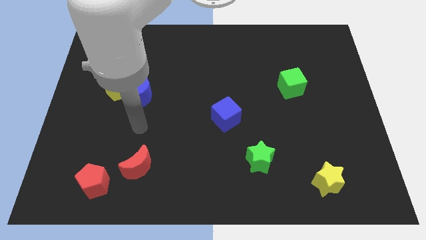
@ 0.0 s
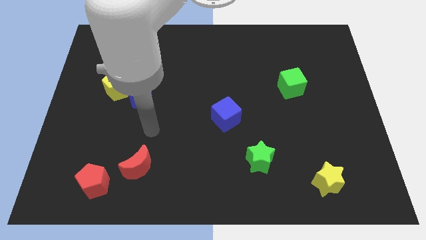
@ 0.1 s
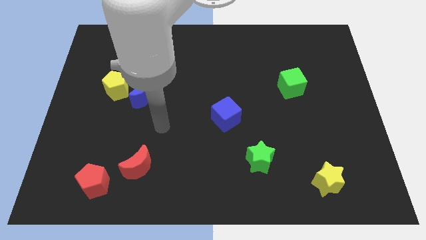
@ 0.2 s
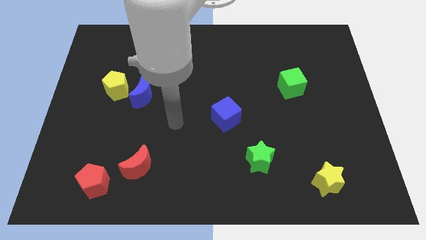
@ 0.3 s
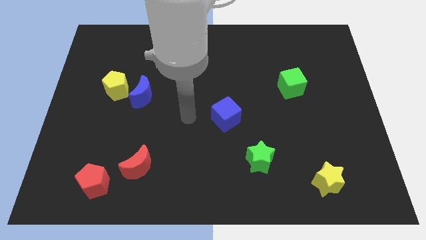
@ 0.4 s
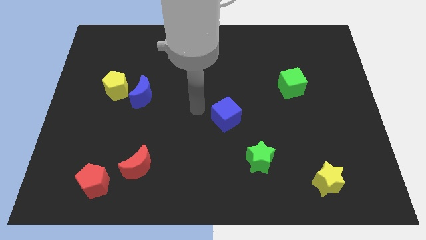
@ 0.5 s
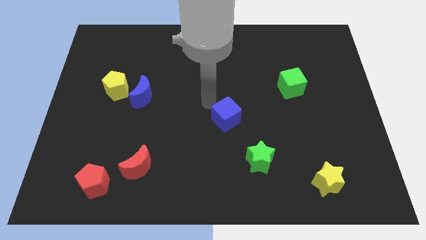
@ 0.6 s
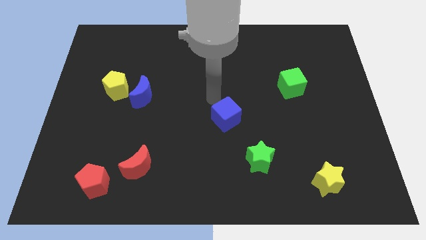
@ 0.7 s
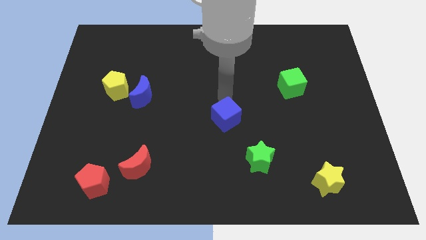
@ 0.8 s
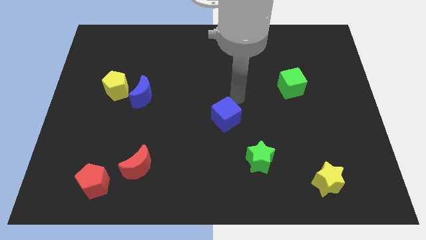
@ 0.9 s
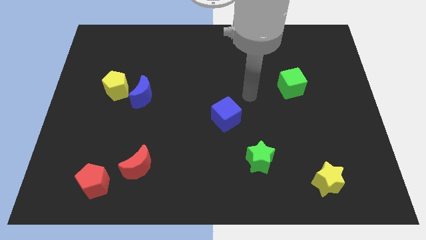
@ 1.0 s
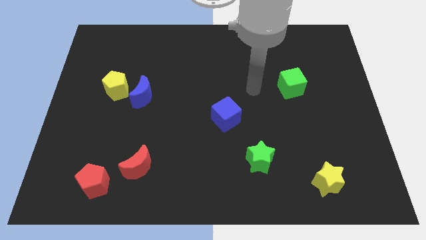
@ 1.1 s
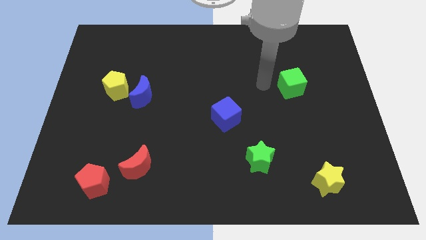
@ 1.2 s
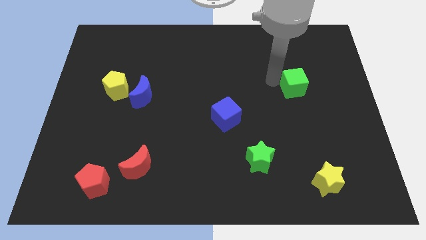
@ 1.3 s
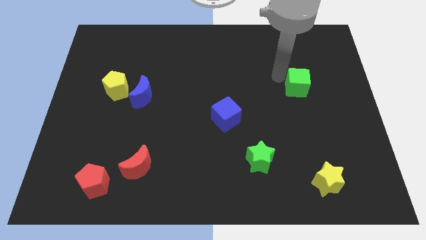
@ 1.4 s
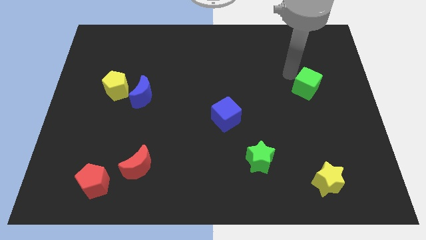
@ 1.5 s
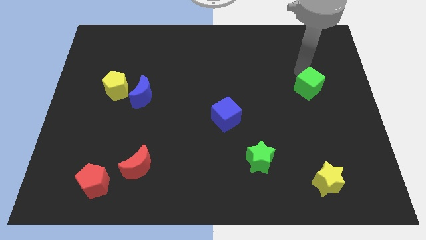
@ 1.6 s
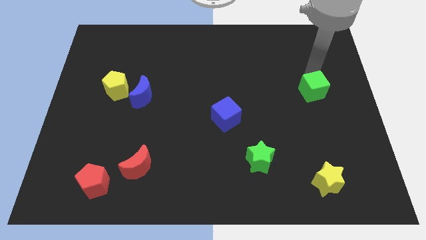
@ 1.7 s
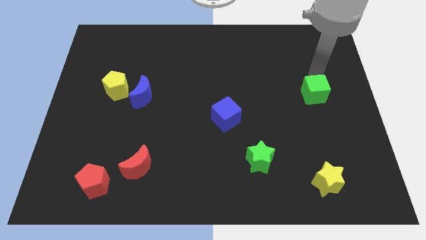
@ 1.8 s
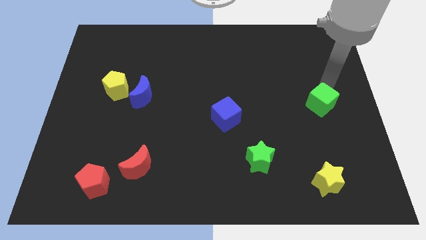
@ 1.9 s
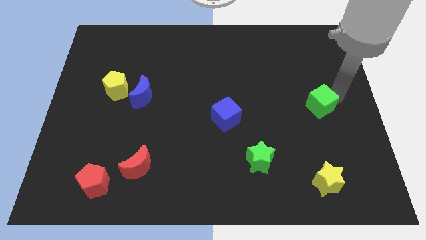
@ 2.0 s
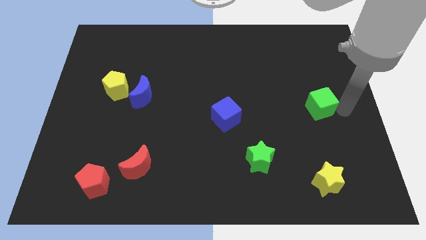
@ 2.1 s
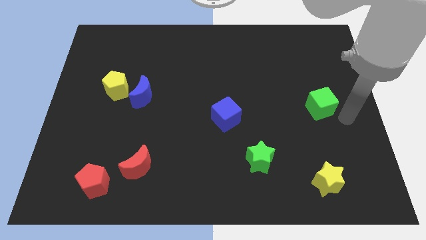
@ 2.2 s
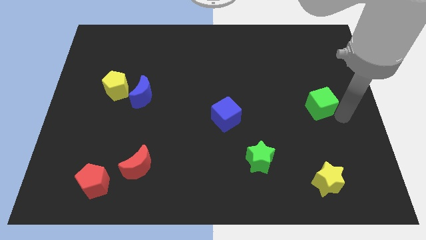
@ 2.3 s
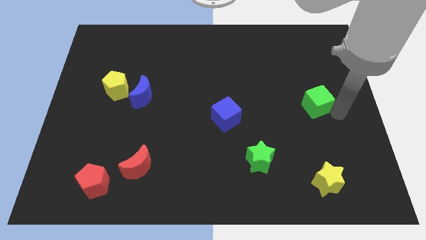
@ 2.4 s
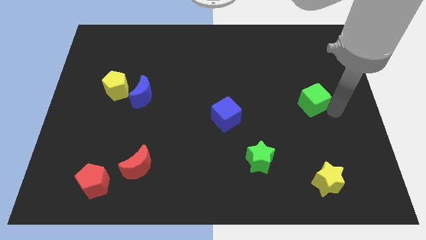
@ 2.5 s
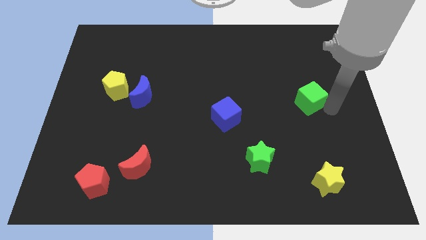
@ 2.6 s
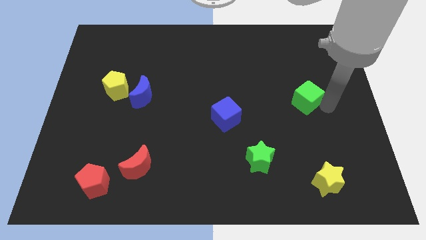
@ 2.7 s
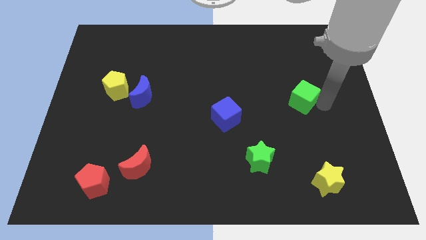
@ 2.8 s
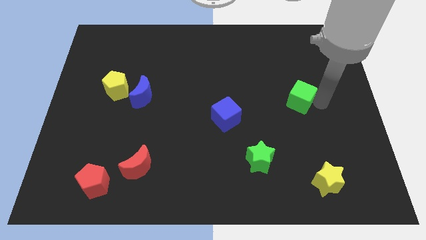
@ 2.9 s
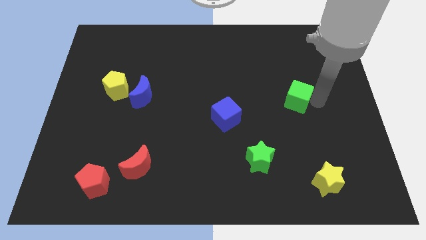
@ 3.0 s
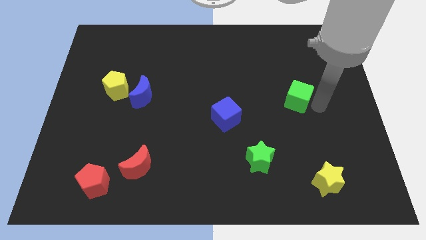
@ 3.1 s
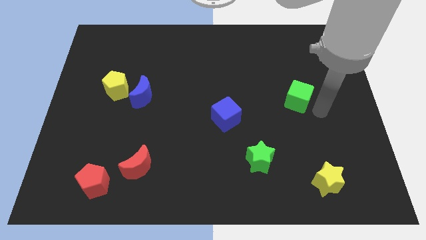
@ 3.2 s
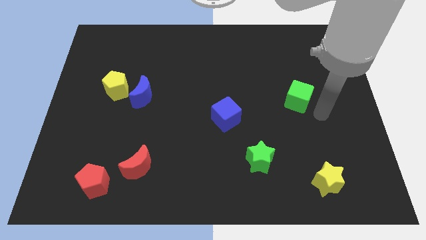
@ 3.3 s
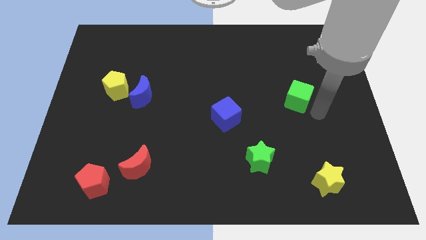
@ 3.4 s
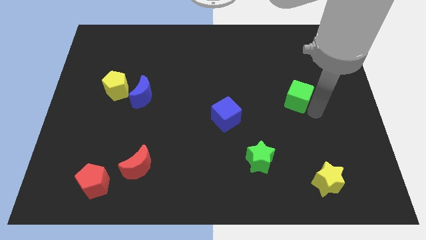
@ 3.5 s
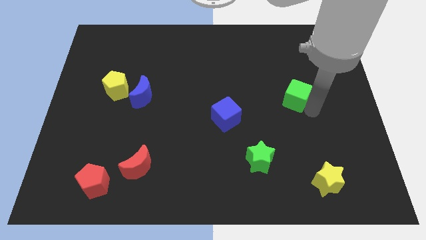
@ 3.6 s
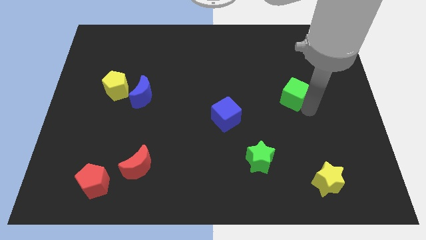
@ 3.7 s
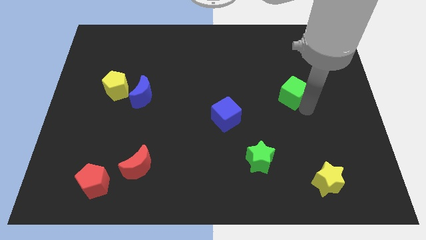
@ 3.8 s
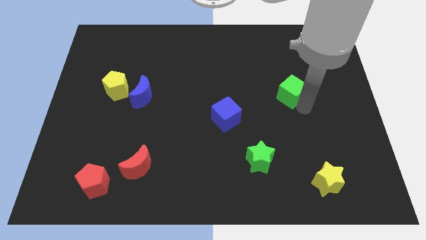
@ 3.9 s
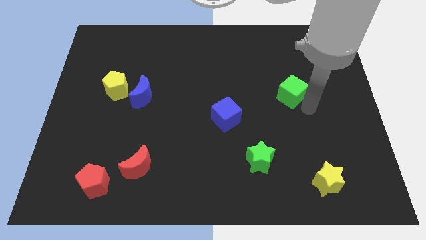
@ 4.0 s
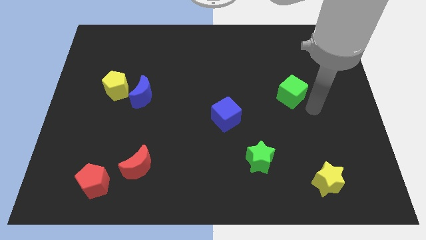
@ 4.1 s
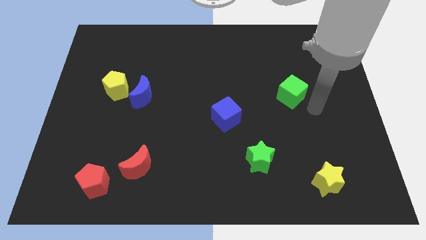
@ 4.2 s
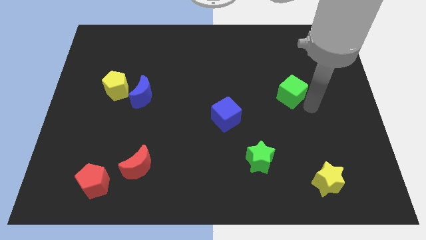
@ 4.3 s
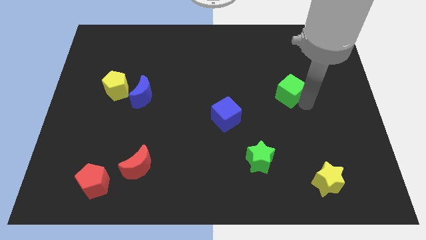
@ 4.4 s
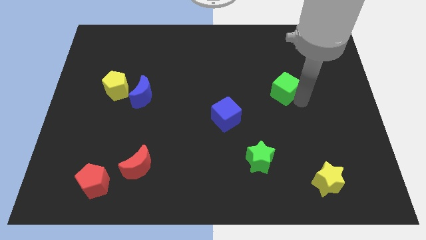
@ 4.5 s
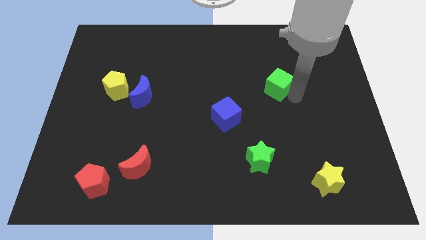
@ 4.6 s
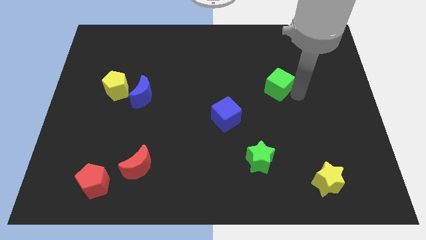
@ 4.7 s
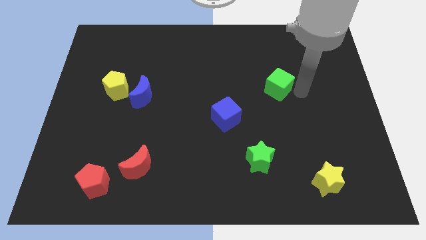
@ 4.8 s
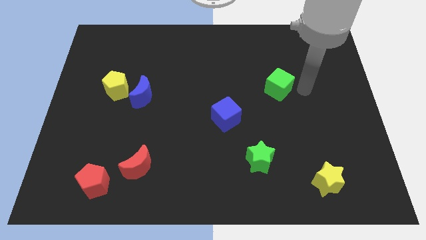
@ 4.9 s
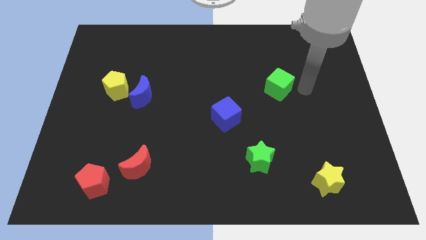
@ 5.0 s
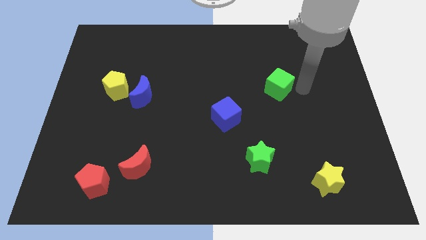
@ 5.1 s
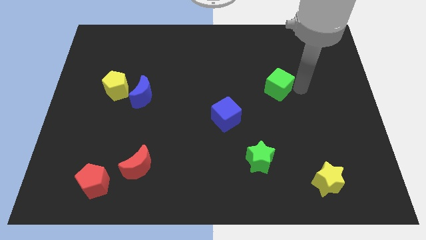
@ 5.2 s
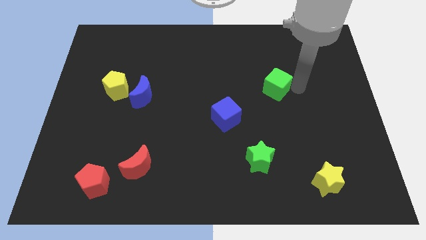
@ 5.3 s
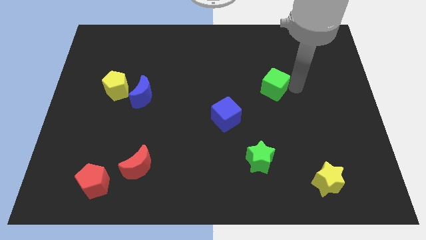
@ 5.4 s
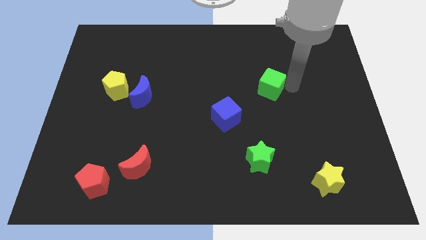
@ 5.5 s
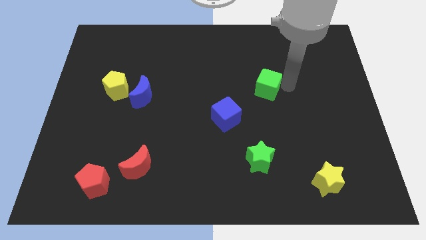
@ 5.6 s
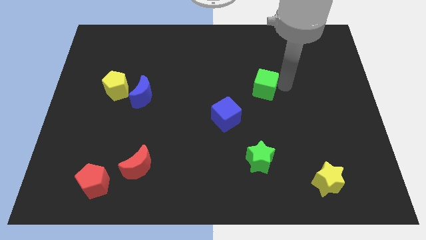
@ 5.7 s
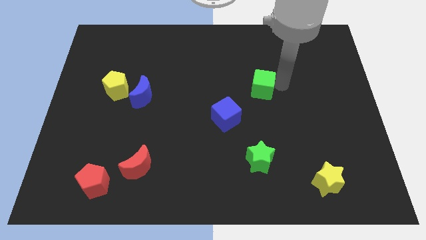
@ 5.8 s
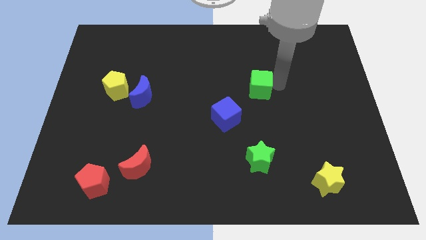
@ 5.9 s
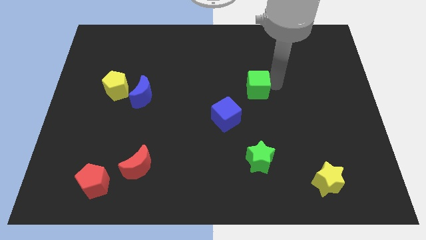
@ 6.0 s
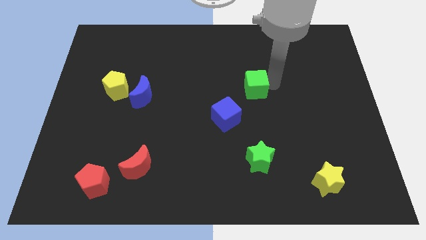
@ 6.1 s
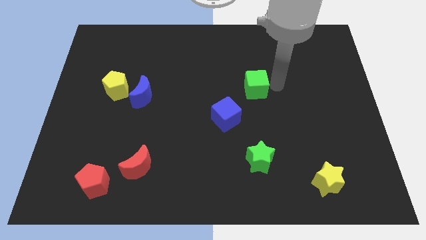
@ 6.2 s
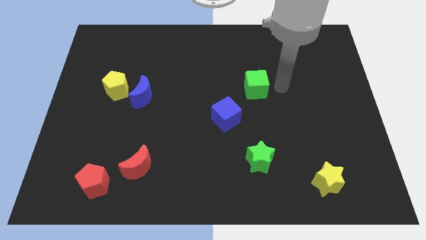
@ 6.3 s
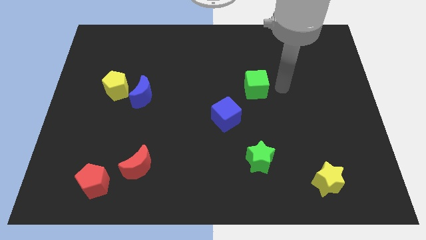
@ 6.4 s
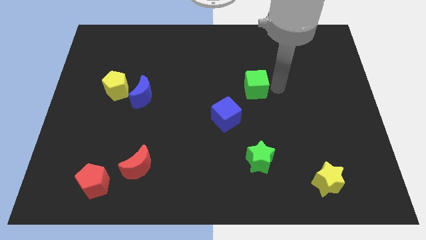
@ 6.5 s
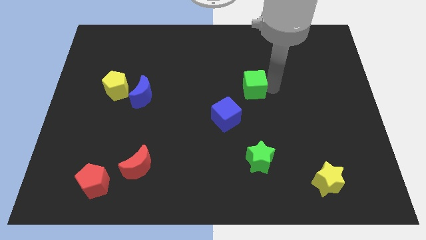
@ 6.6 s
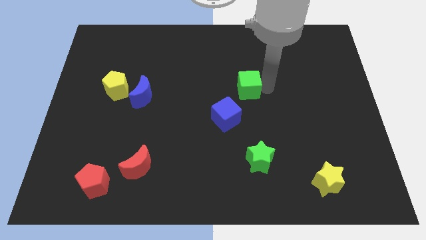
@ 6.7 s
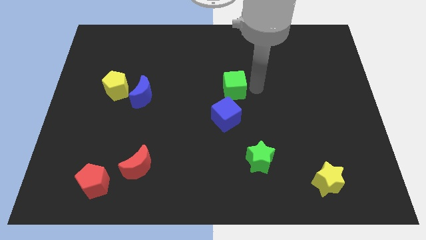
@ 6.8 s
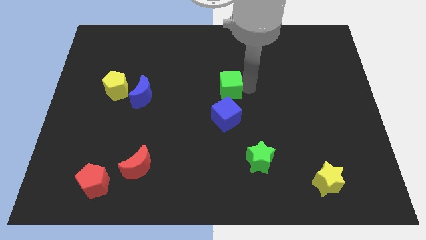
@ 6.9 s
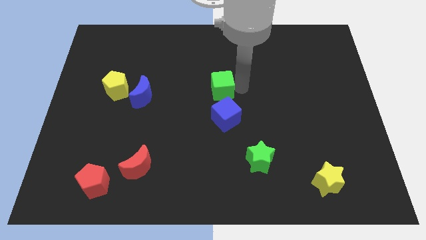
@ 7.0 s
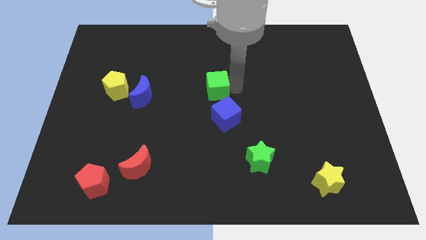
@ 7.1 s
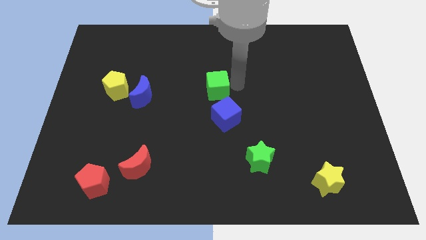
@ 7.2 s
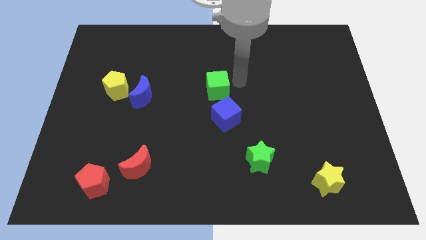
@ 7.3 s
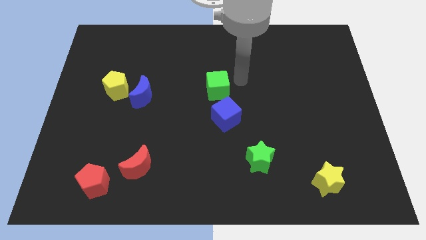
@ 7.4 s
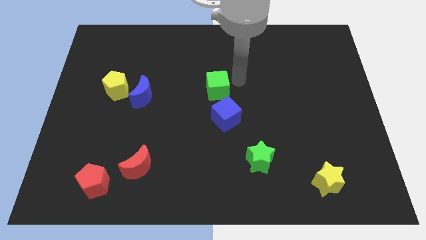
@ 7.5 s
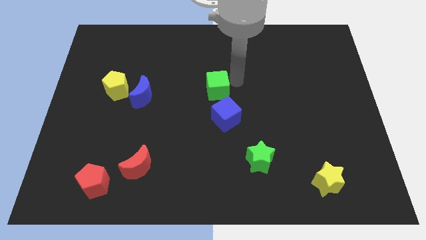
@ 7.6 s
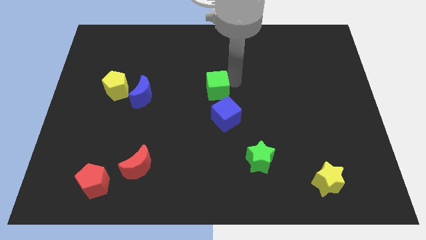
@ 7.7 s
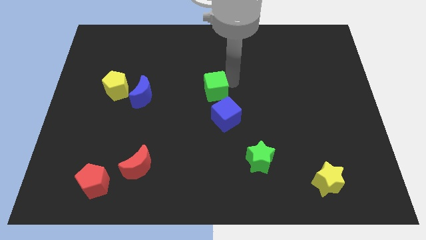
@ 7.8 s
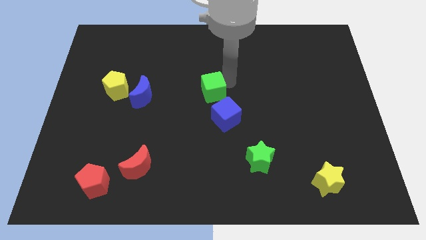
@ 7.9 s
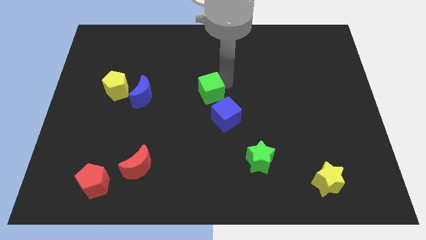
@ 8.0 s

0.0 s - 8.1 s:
push the green cube right of the blue moon
